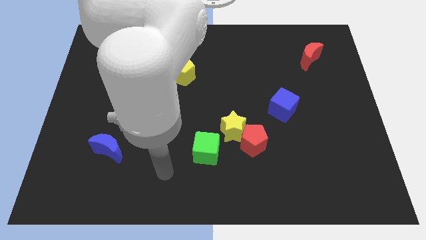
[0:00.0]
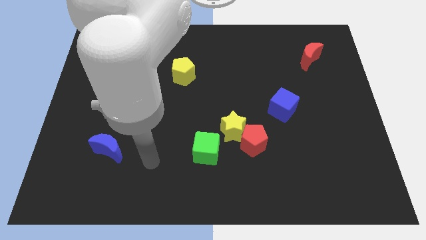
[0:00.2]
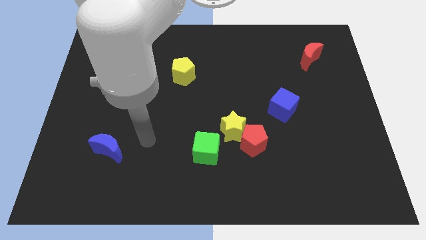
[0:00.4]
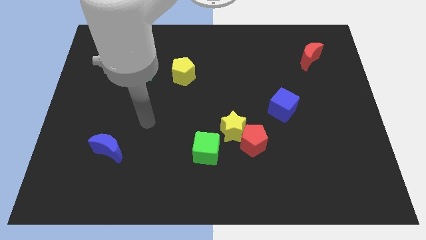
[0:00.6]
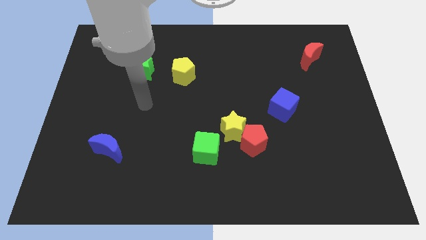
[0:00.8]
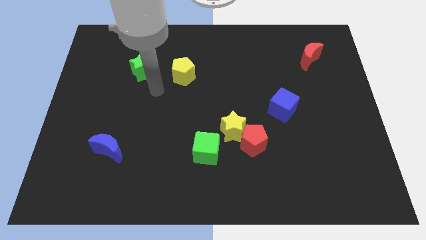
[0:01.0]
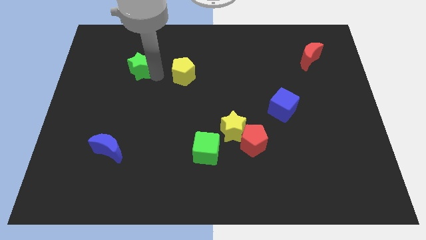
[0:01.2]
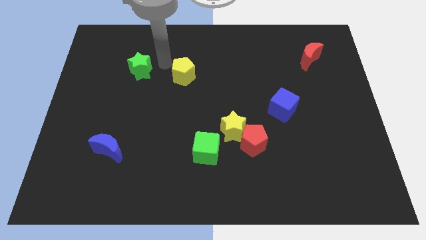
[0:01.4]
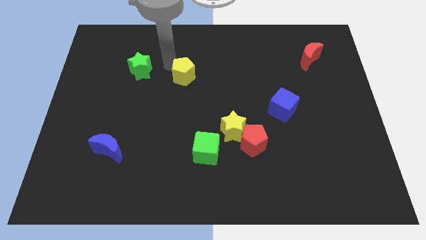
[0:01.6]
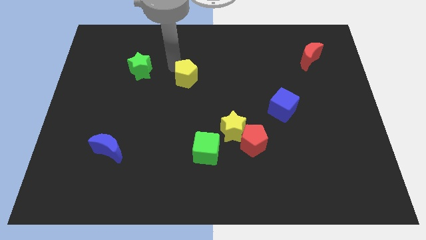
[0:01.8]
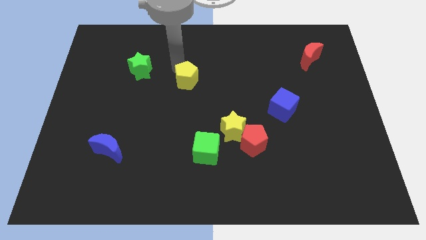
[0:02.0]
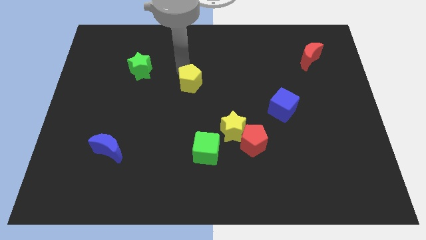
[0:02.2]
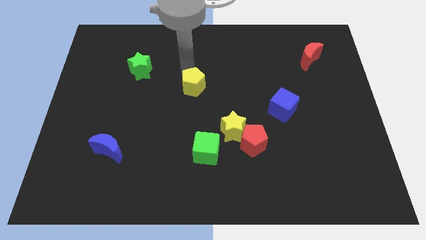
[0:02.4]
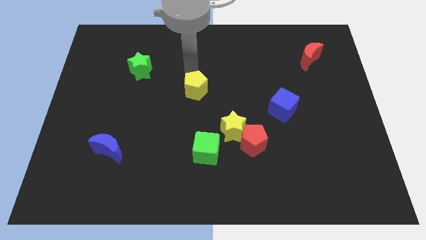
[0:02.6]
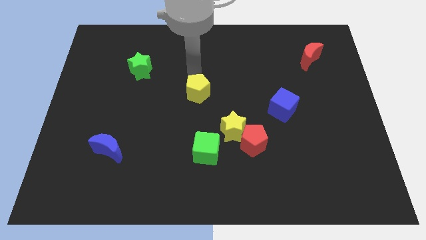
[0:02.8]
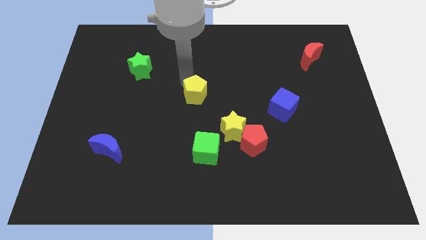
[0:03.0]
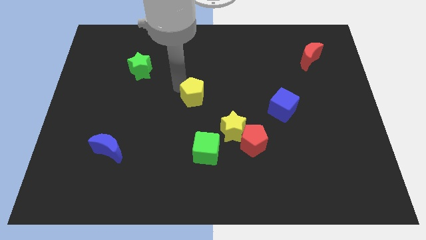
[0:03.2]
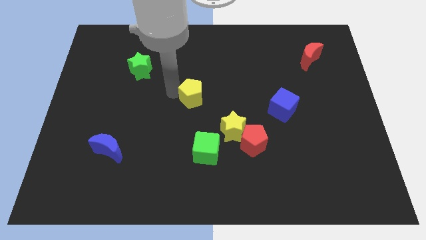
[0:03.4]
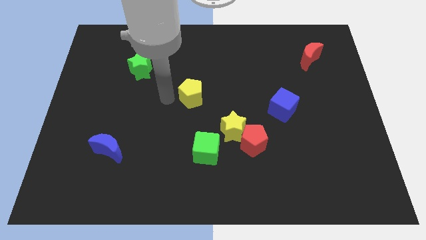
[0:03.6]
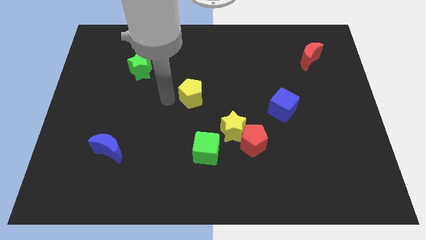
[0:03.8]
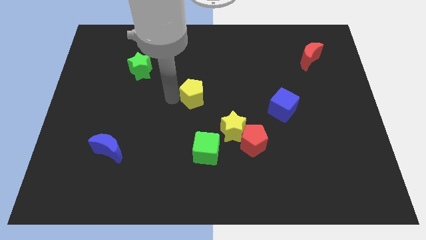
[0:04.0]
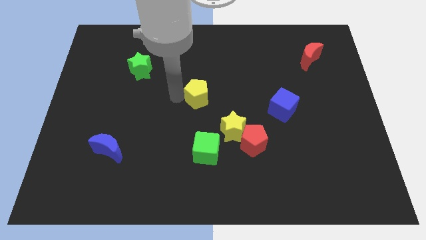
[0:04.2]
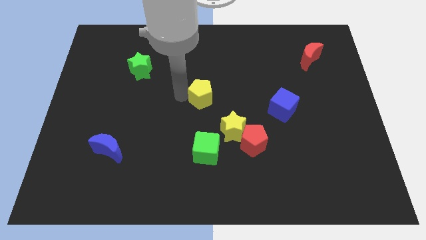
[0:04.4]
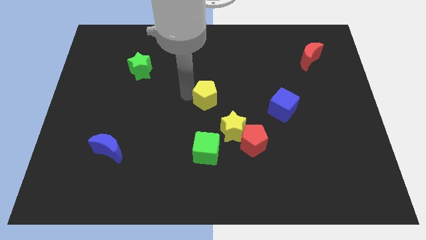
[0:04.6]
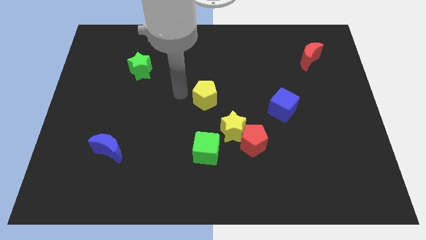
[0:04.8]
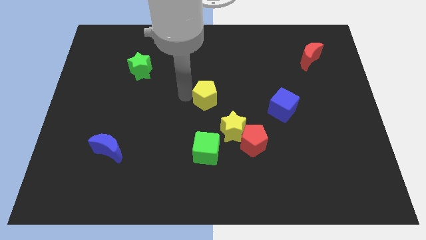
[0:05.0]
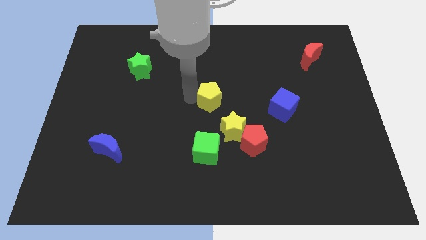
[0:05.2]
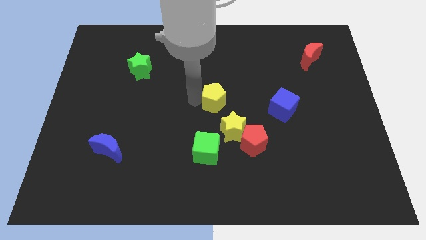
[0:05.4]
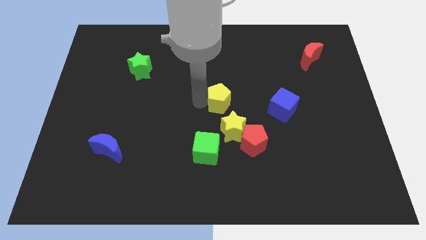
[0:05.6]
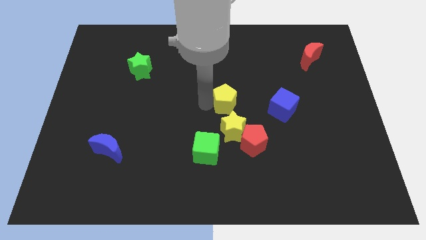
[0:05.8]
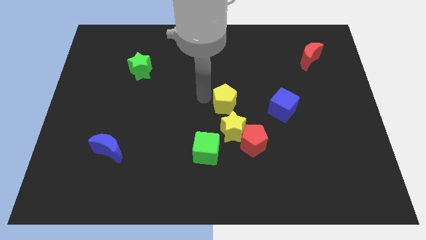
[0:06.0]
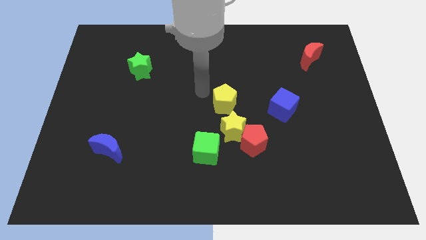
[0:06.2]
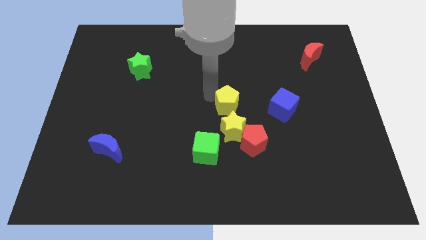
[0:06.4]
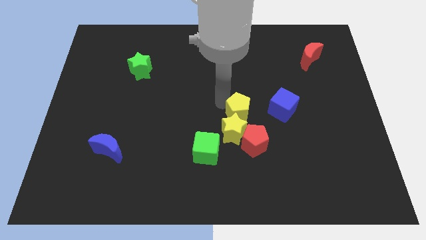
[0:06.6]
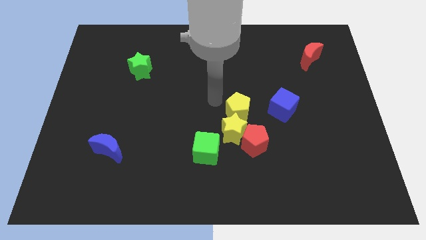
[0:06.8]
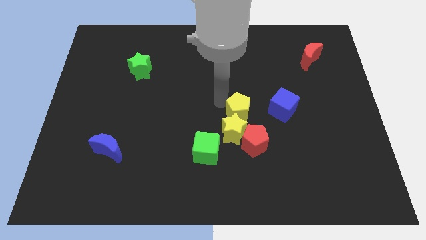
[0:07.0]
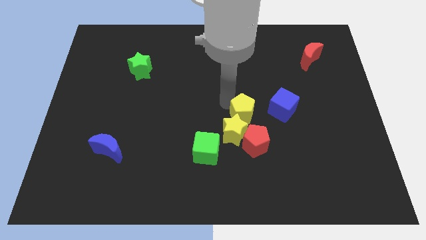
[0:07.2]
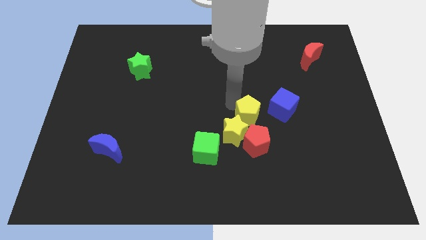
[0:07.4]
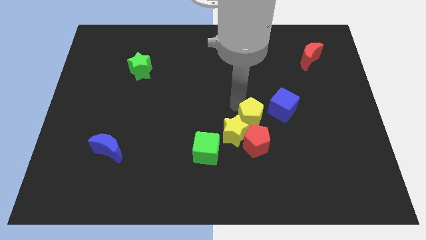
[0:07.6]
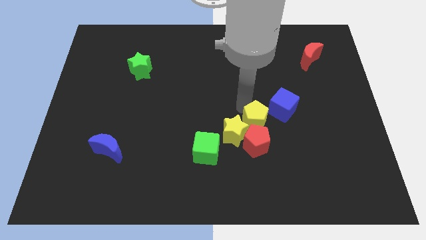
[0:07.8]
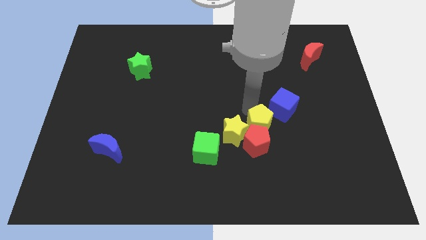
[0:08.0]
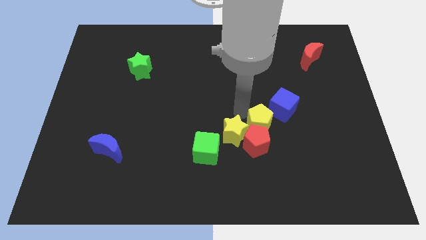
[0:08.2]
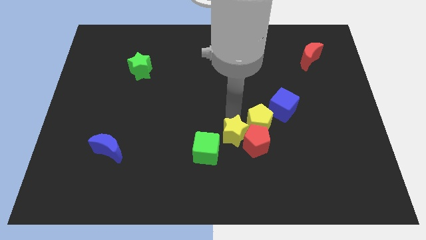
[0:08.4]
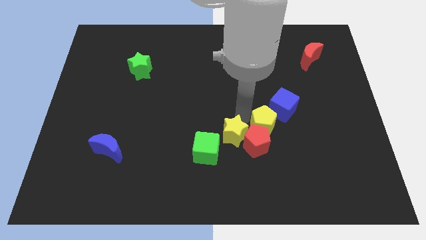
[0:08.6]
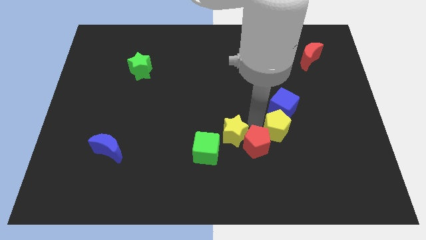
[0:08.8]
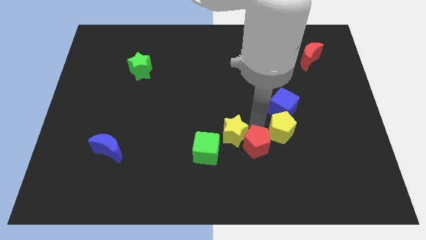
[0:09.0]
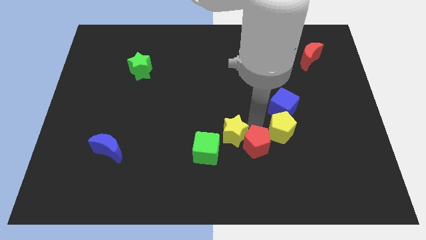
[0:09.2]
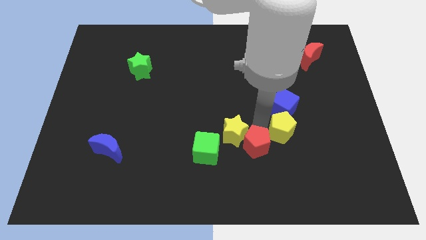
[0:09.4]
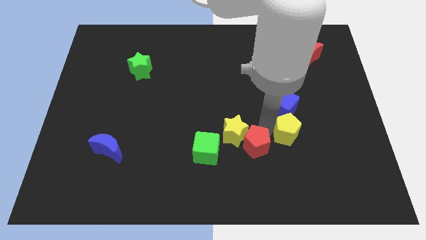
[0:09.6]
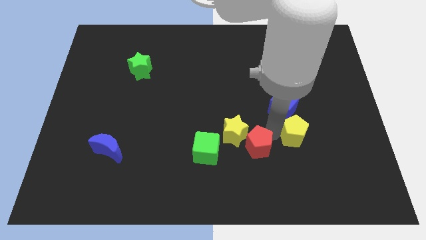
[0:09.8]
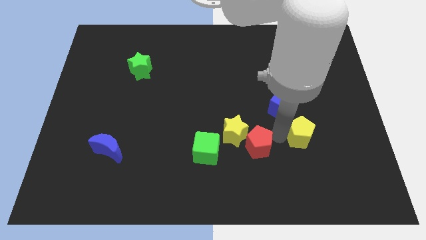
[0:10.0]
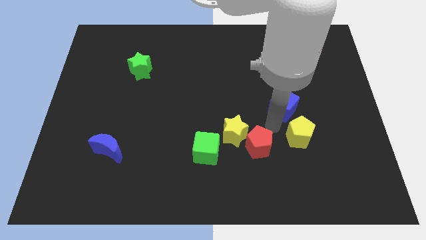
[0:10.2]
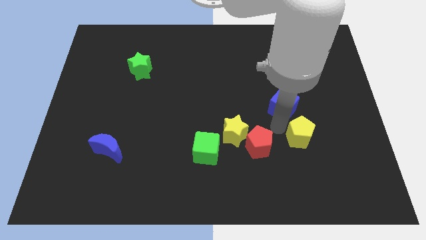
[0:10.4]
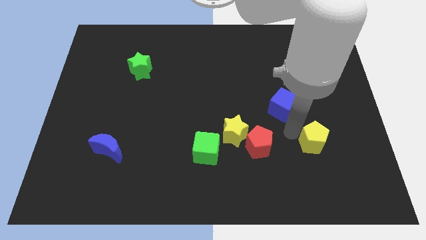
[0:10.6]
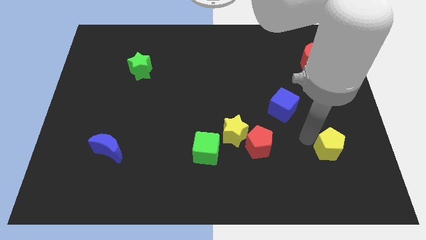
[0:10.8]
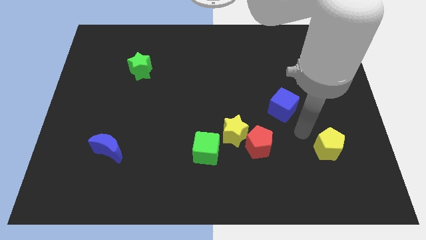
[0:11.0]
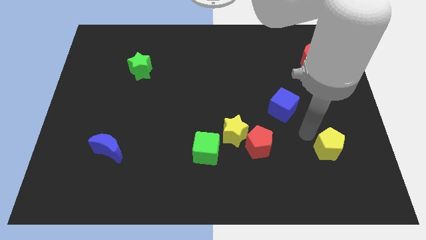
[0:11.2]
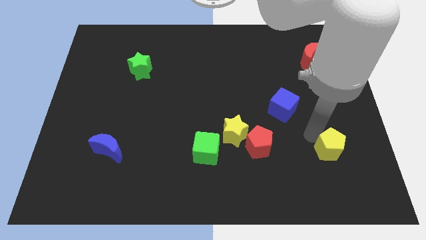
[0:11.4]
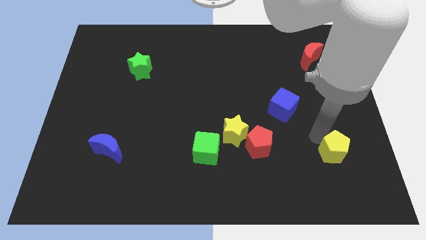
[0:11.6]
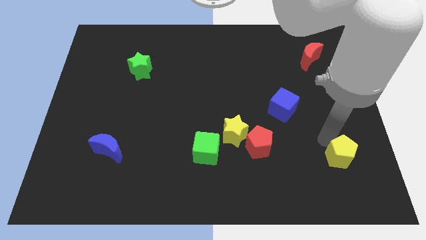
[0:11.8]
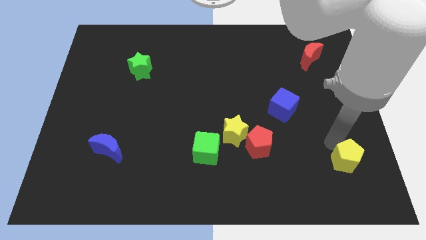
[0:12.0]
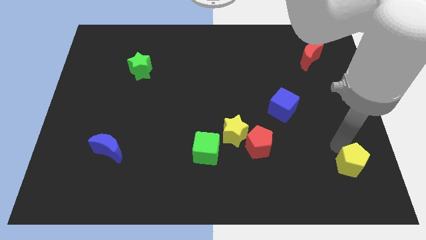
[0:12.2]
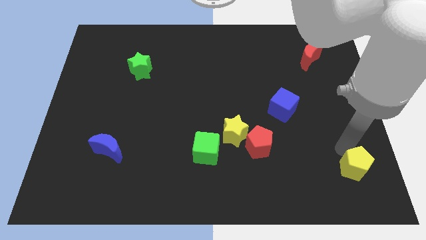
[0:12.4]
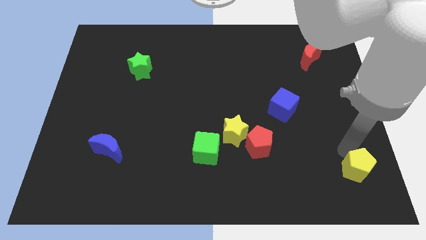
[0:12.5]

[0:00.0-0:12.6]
put the yellow pentagon to the bottom right corner
